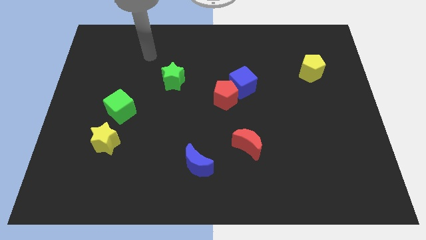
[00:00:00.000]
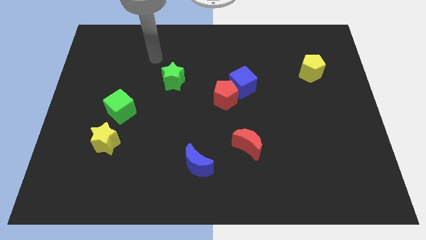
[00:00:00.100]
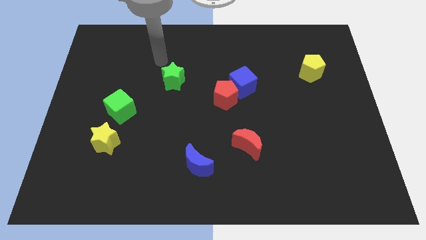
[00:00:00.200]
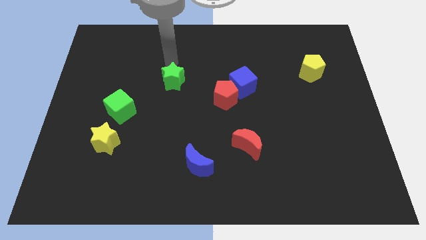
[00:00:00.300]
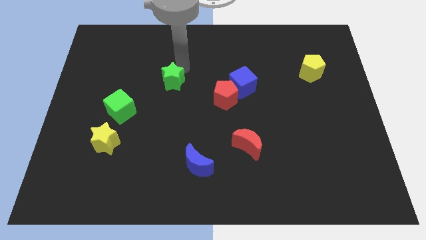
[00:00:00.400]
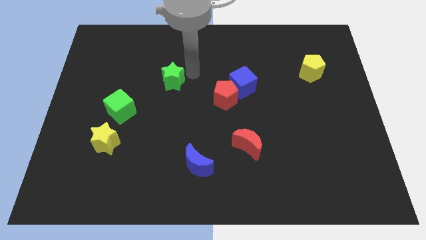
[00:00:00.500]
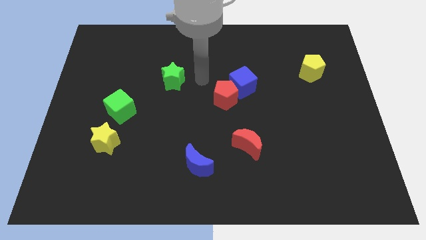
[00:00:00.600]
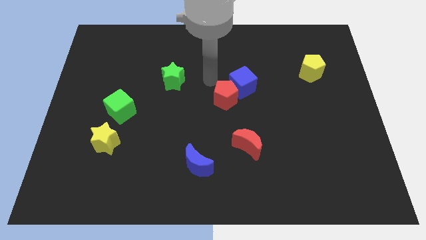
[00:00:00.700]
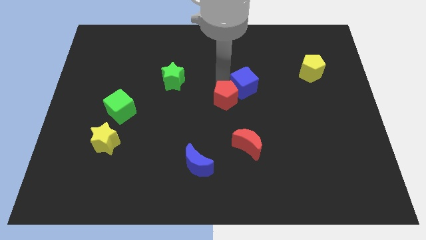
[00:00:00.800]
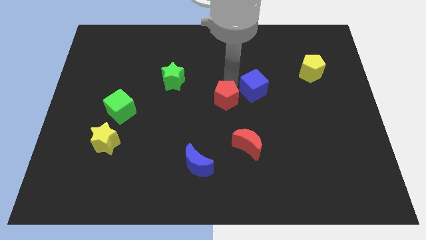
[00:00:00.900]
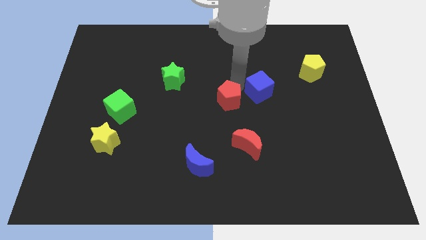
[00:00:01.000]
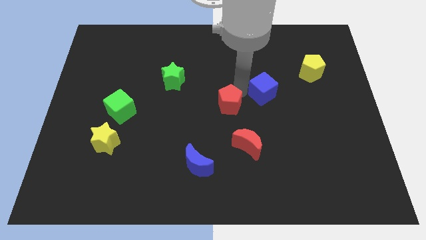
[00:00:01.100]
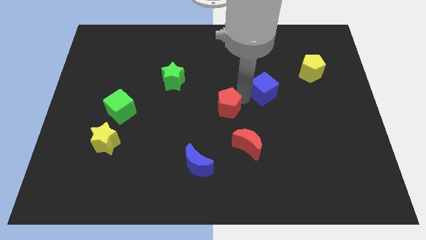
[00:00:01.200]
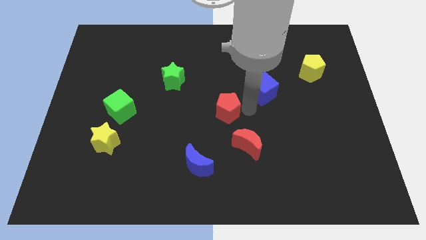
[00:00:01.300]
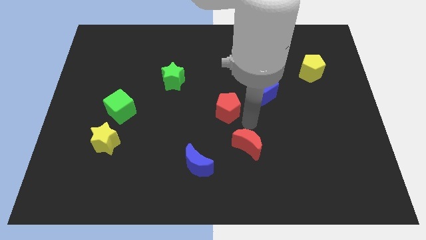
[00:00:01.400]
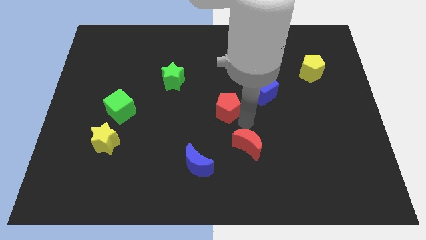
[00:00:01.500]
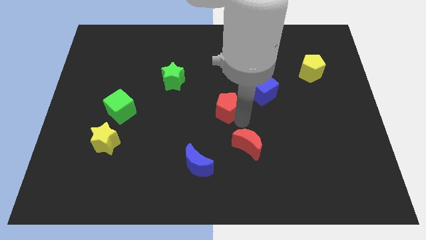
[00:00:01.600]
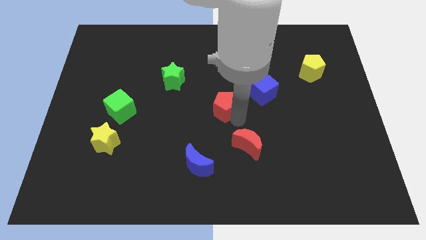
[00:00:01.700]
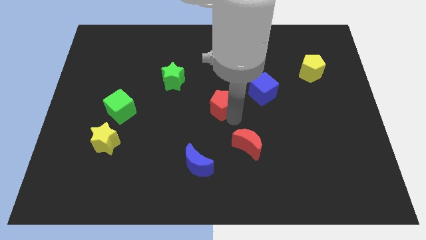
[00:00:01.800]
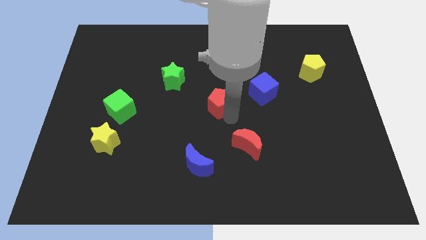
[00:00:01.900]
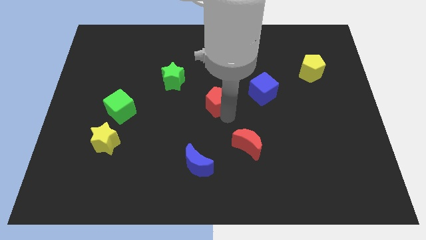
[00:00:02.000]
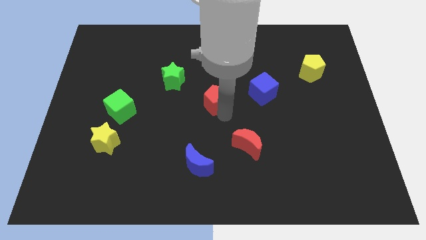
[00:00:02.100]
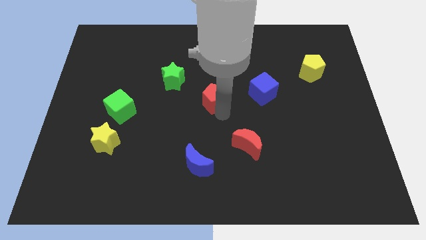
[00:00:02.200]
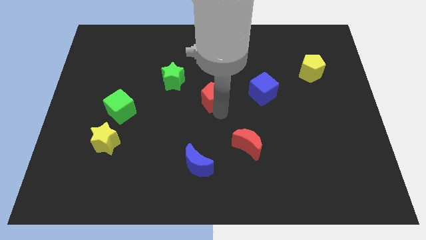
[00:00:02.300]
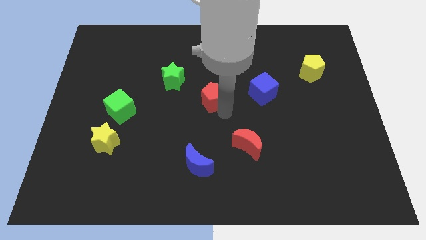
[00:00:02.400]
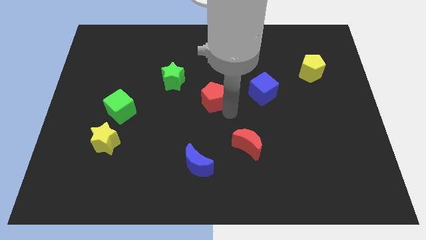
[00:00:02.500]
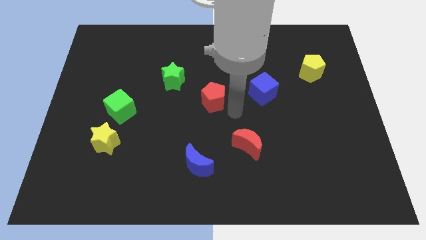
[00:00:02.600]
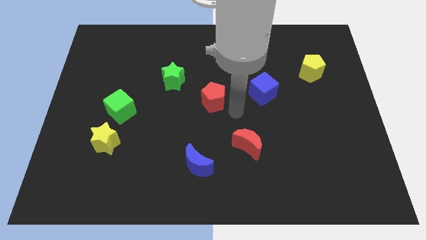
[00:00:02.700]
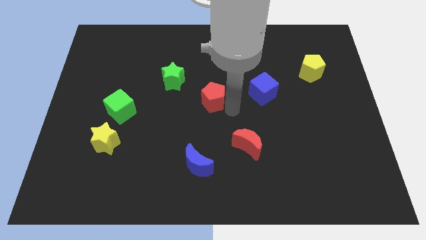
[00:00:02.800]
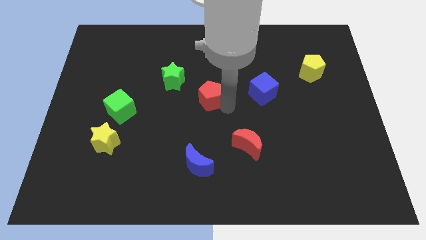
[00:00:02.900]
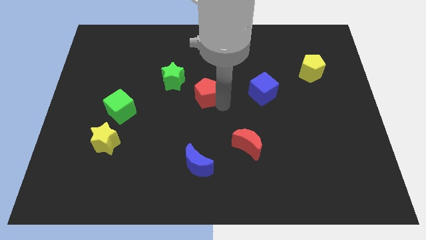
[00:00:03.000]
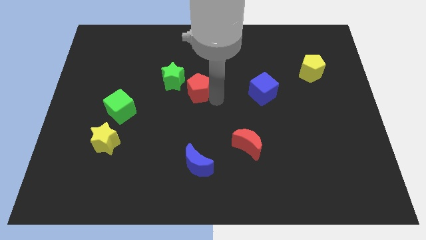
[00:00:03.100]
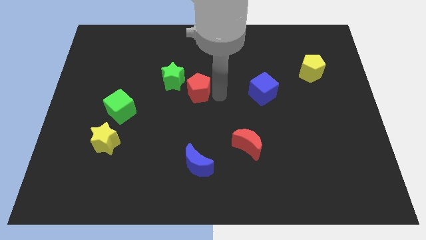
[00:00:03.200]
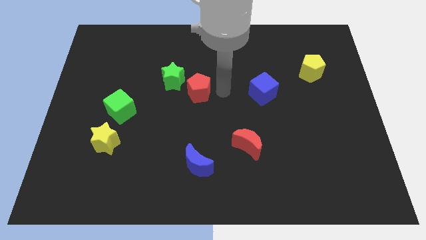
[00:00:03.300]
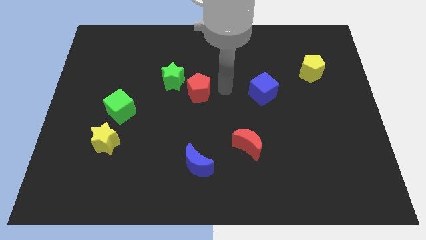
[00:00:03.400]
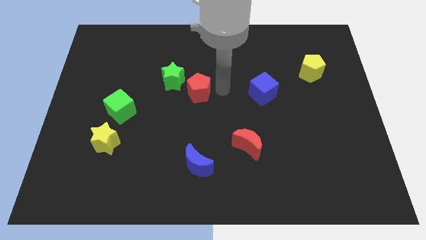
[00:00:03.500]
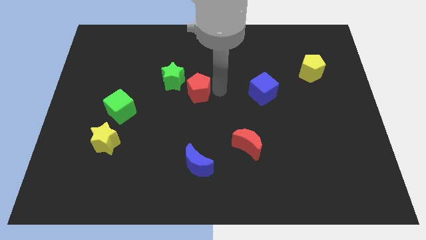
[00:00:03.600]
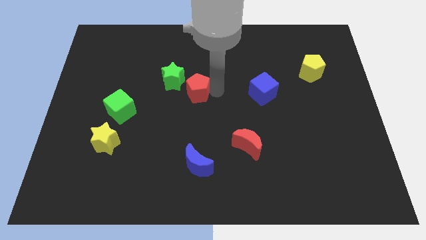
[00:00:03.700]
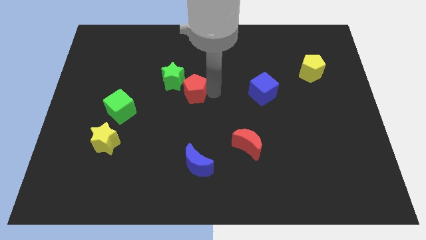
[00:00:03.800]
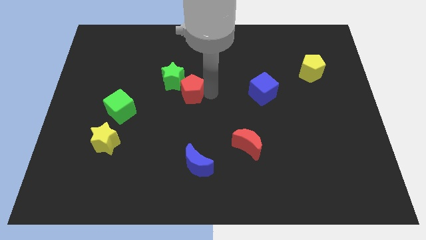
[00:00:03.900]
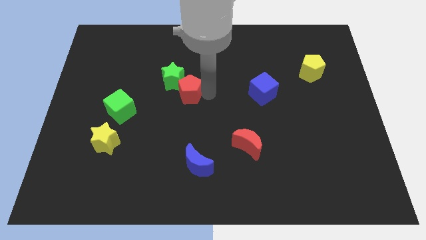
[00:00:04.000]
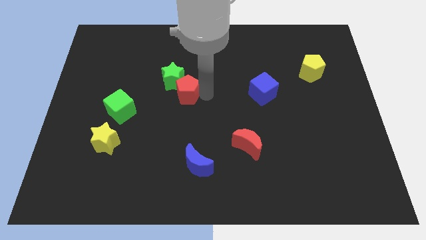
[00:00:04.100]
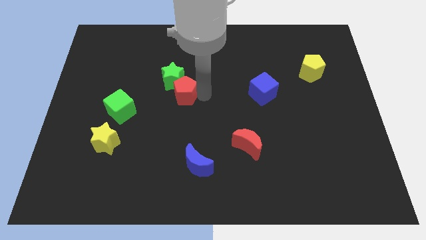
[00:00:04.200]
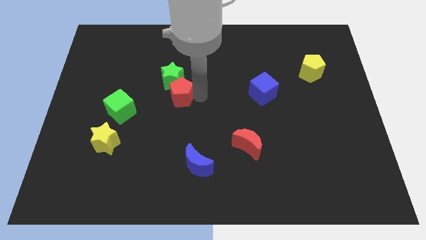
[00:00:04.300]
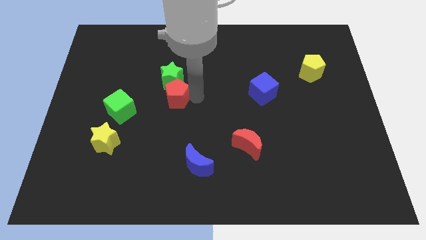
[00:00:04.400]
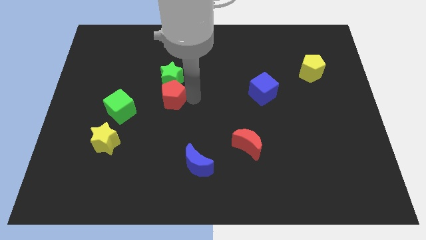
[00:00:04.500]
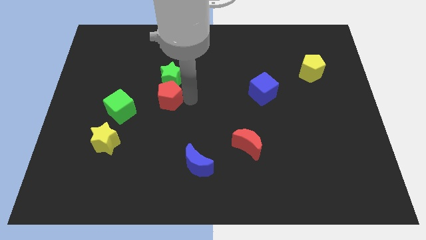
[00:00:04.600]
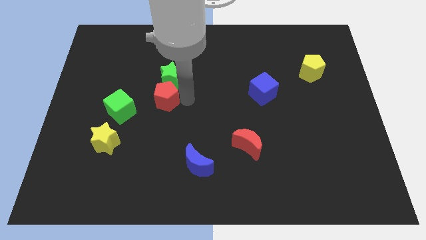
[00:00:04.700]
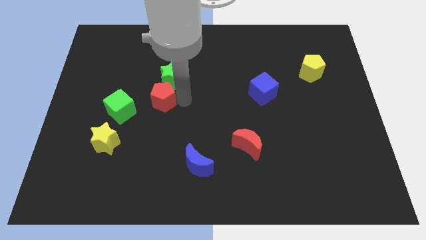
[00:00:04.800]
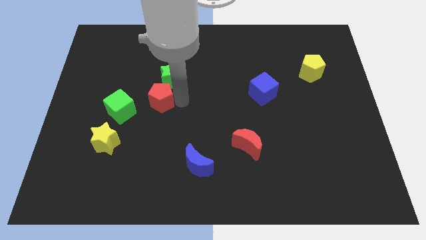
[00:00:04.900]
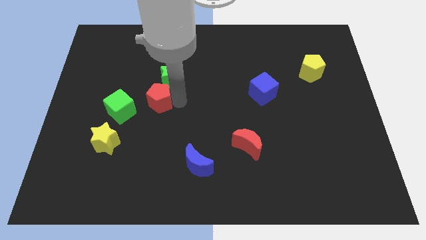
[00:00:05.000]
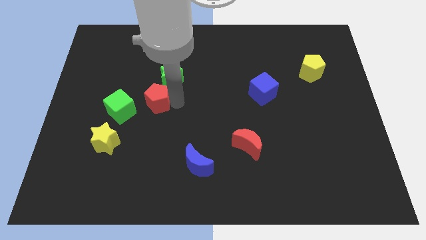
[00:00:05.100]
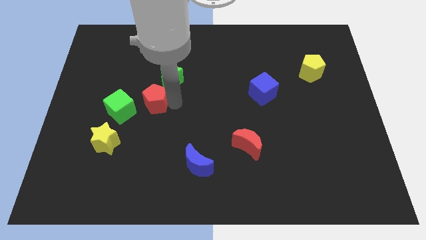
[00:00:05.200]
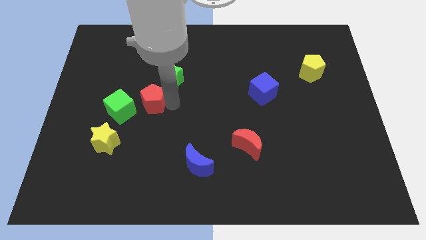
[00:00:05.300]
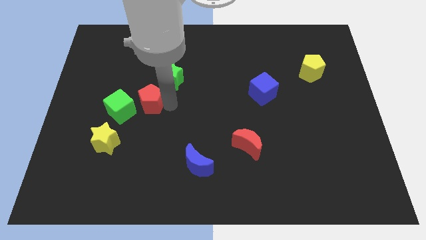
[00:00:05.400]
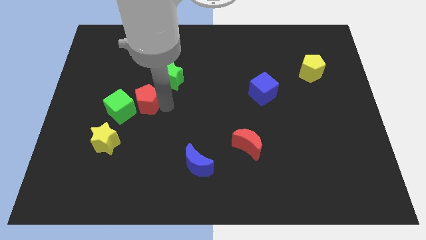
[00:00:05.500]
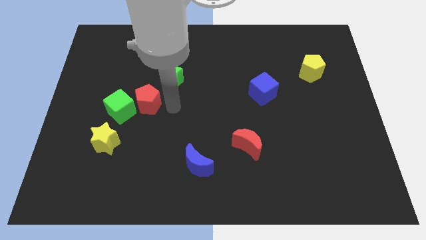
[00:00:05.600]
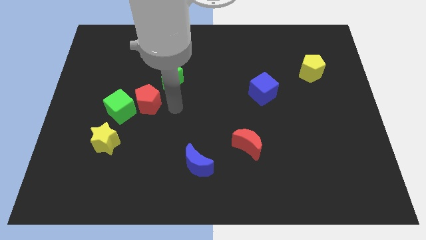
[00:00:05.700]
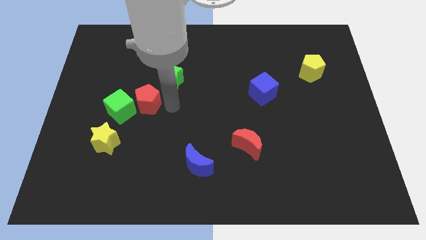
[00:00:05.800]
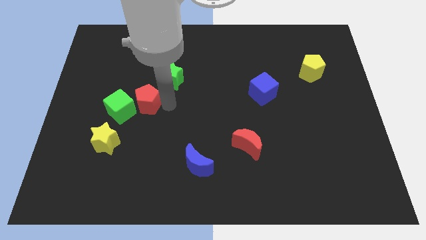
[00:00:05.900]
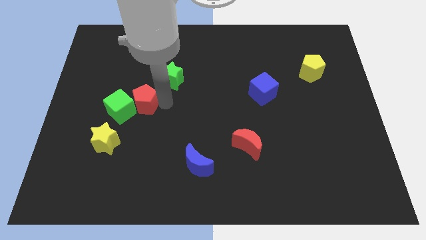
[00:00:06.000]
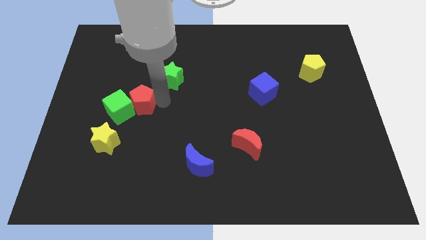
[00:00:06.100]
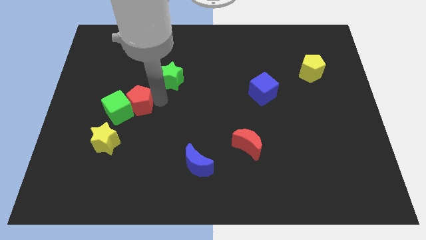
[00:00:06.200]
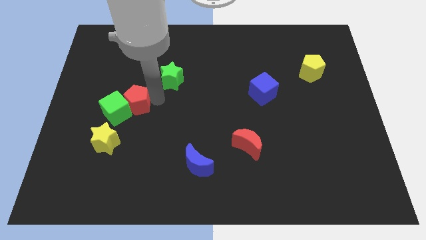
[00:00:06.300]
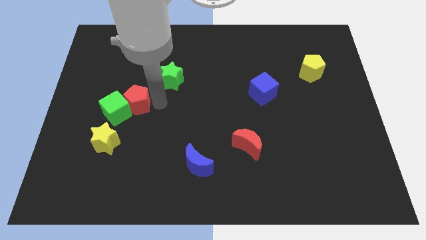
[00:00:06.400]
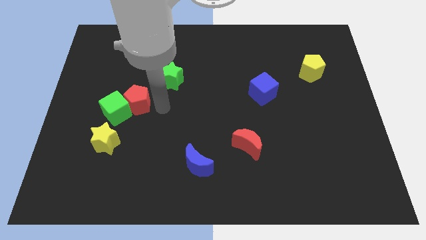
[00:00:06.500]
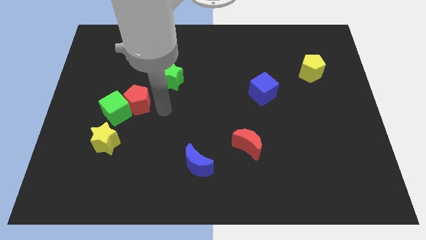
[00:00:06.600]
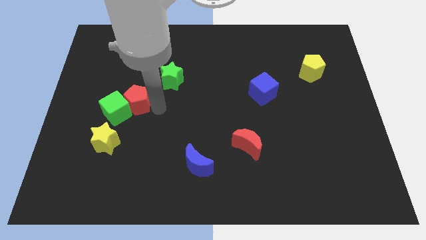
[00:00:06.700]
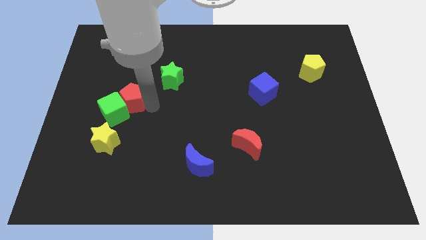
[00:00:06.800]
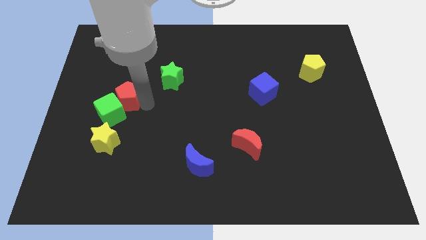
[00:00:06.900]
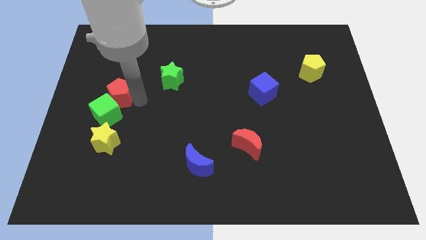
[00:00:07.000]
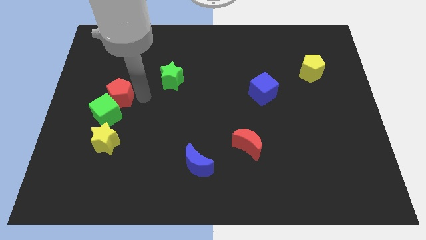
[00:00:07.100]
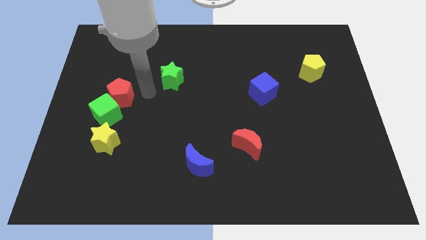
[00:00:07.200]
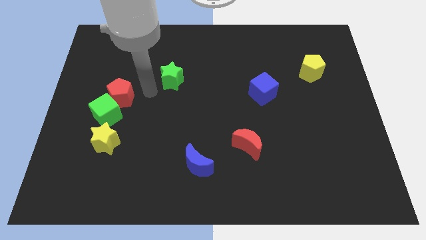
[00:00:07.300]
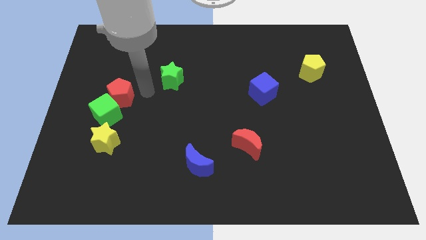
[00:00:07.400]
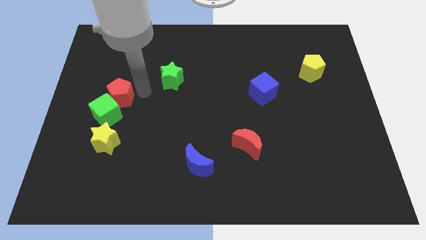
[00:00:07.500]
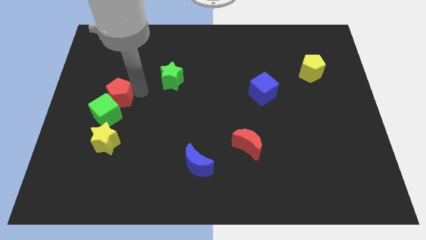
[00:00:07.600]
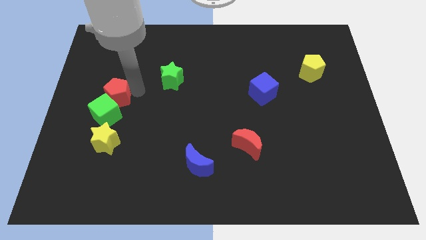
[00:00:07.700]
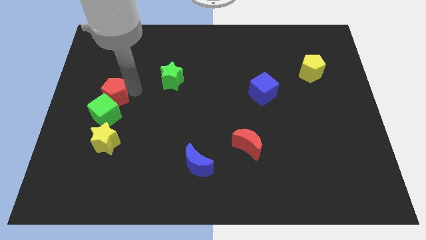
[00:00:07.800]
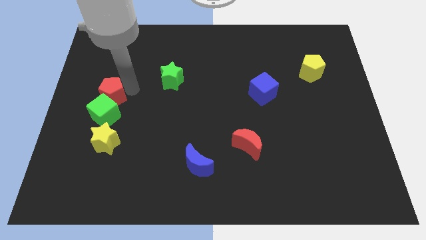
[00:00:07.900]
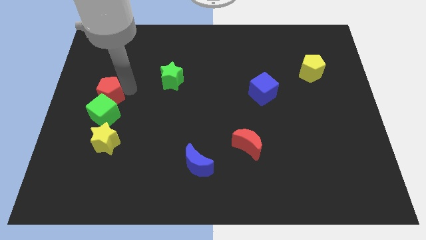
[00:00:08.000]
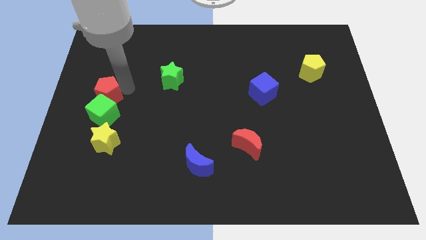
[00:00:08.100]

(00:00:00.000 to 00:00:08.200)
move the red pentagon to the left side
